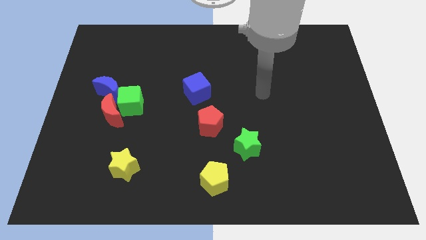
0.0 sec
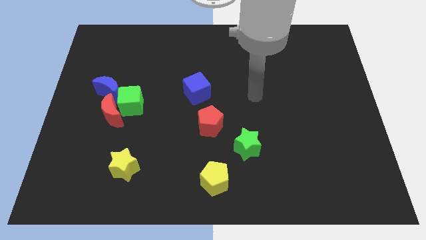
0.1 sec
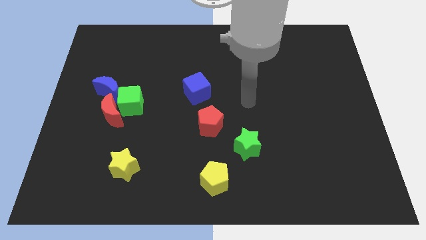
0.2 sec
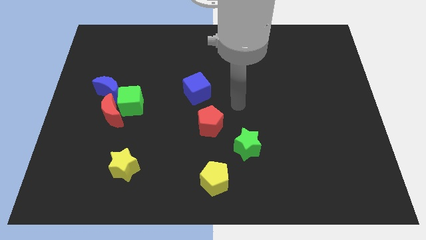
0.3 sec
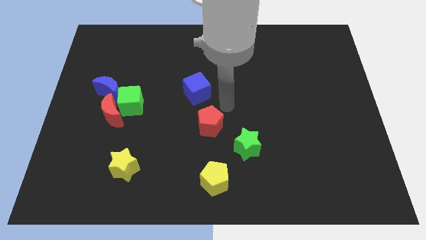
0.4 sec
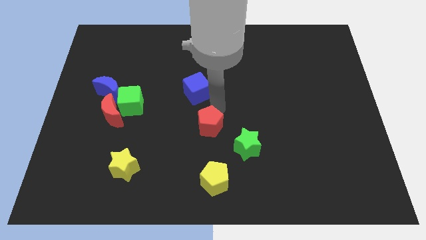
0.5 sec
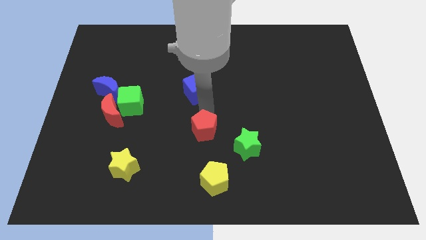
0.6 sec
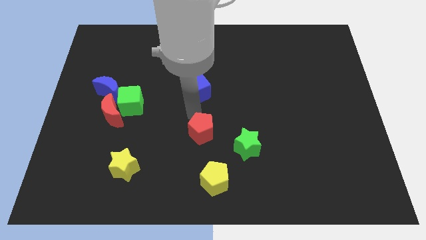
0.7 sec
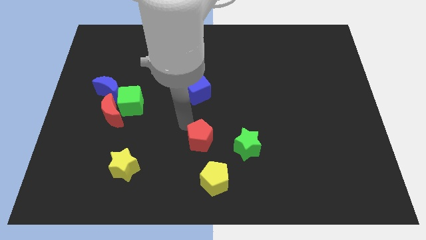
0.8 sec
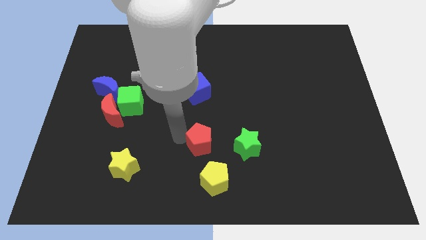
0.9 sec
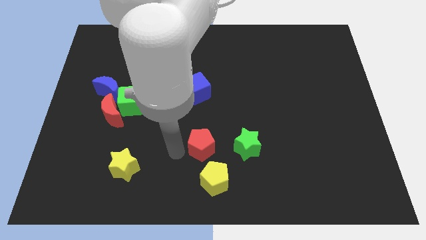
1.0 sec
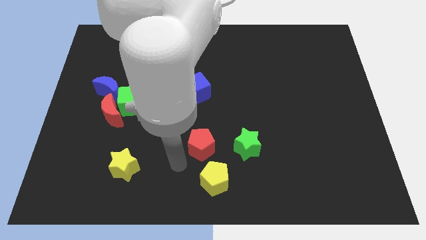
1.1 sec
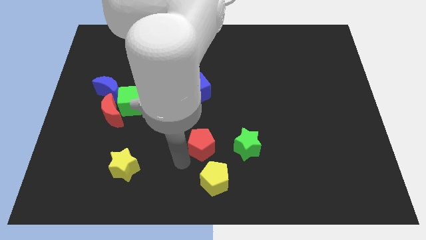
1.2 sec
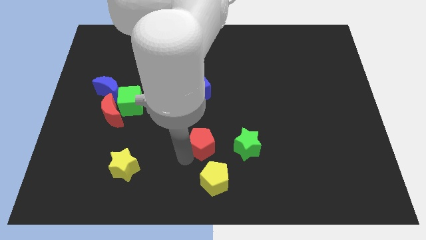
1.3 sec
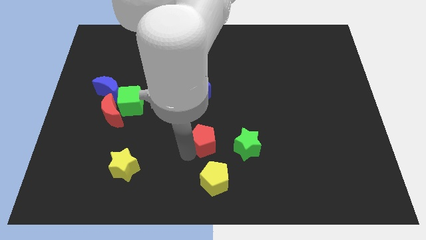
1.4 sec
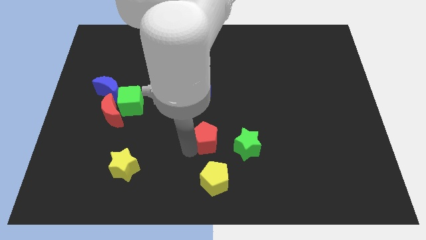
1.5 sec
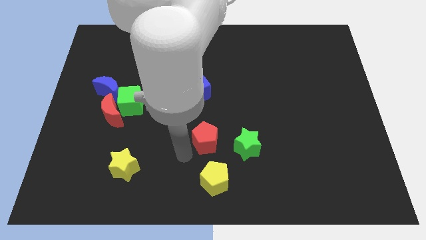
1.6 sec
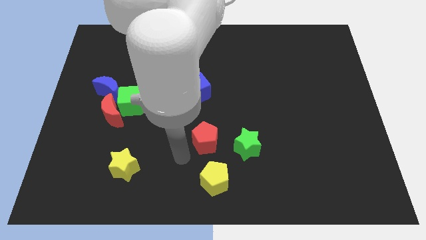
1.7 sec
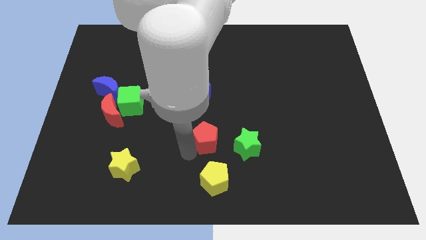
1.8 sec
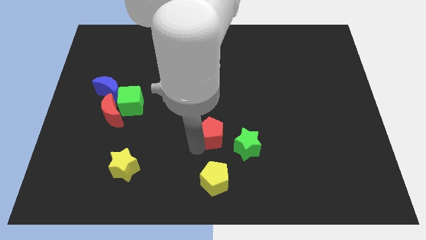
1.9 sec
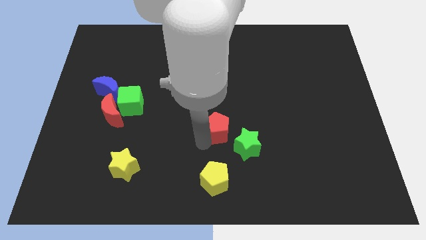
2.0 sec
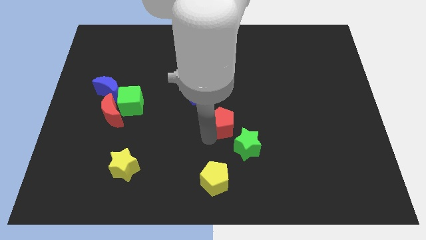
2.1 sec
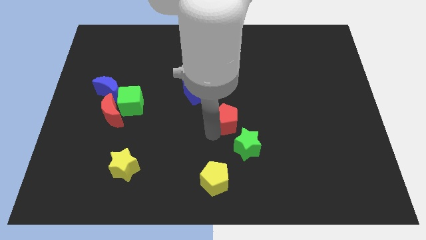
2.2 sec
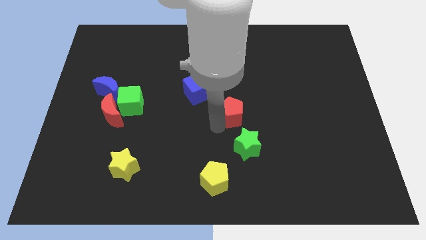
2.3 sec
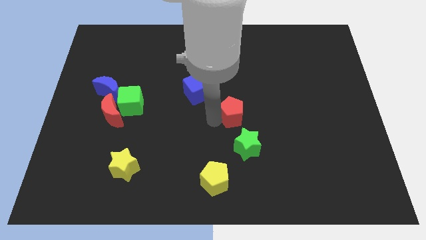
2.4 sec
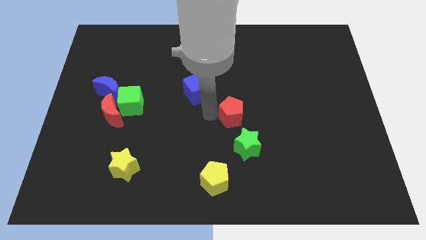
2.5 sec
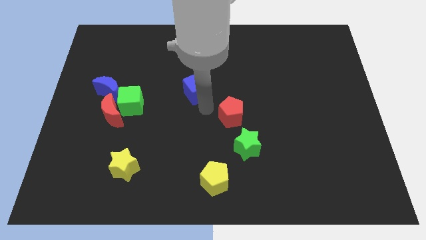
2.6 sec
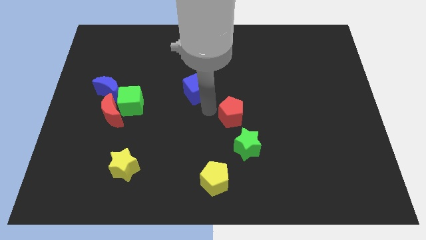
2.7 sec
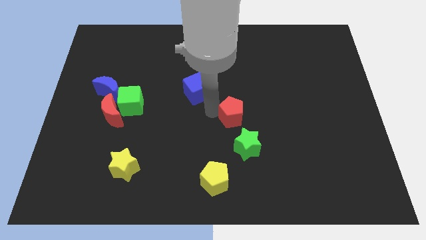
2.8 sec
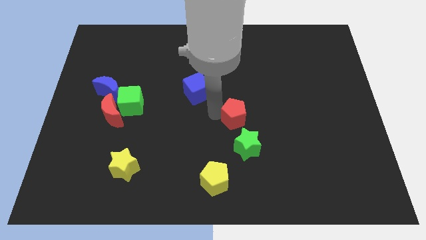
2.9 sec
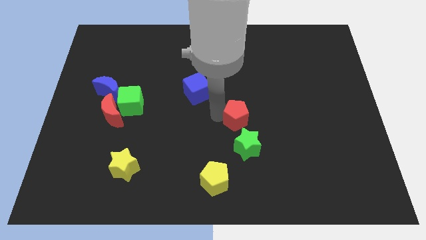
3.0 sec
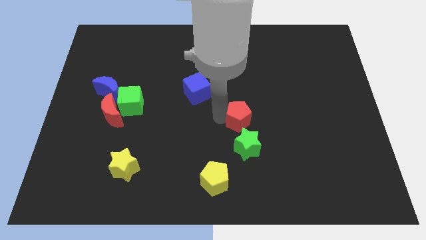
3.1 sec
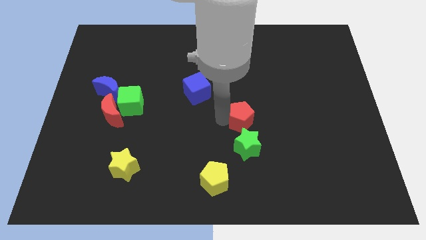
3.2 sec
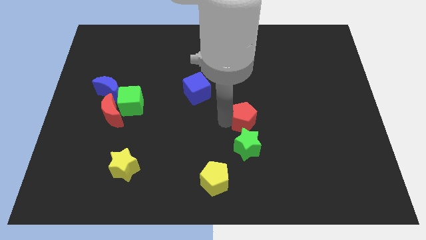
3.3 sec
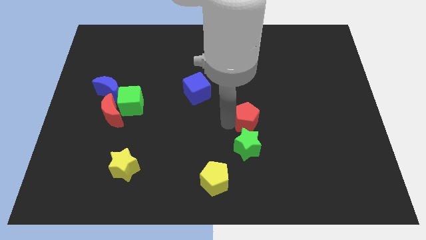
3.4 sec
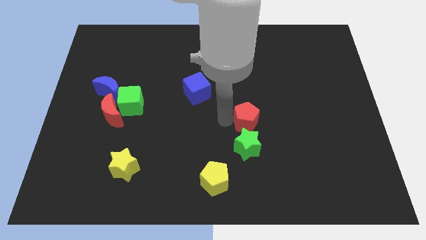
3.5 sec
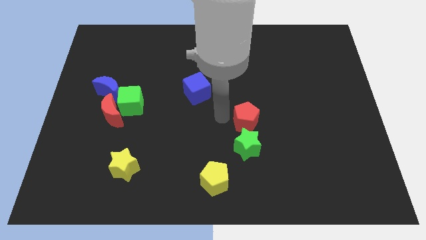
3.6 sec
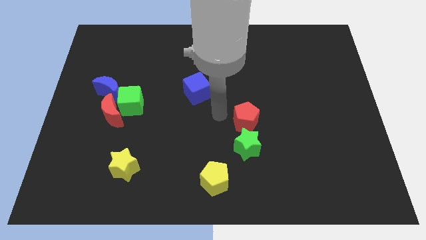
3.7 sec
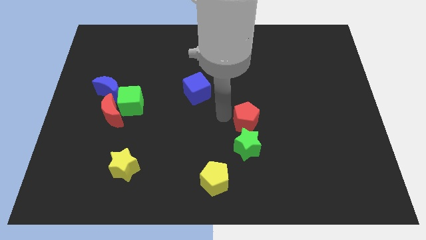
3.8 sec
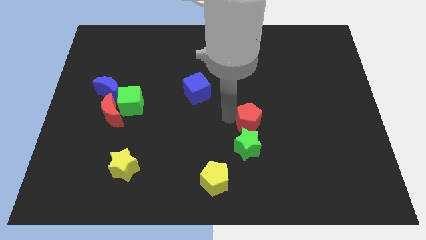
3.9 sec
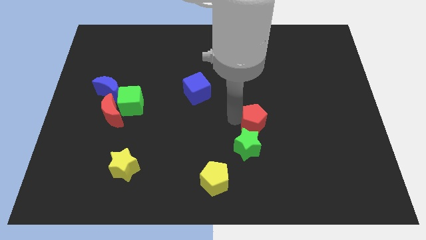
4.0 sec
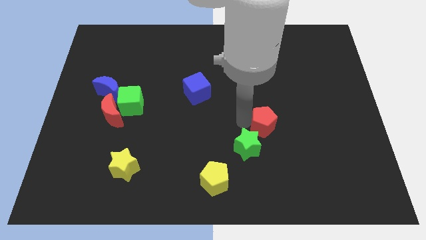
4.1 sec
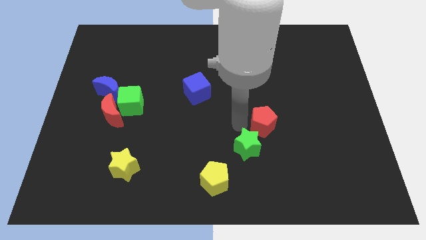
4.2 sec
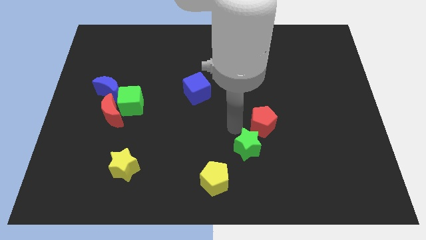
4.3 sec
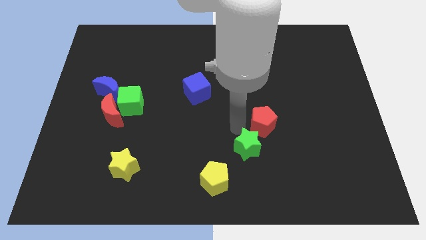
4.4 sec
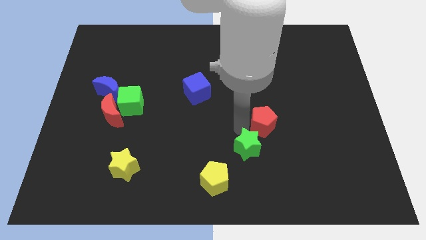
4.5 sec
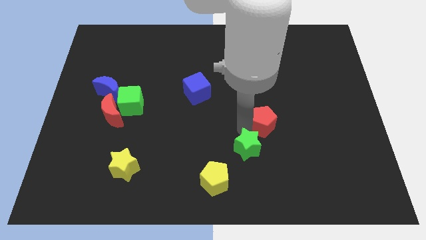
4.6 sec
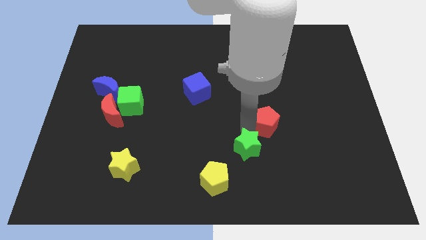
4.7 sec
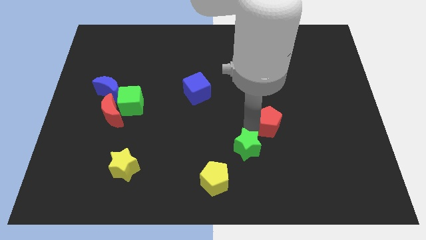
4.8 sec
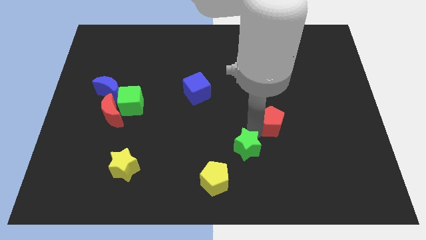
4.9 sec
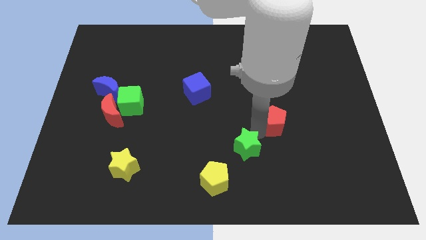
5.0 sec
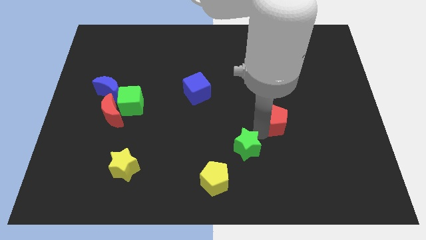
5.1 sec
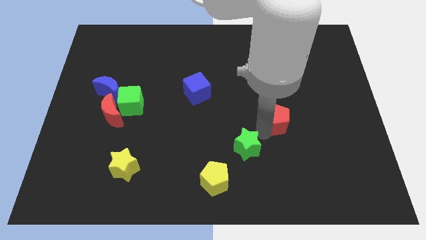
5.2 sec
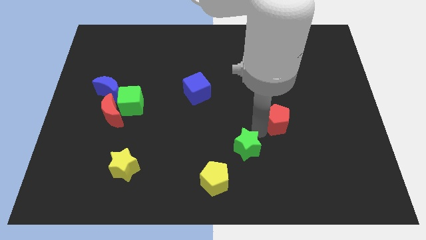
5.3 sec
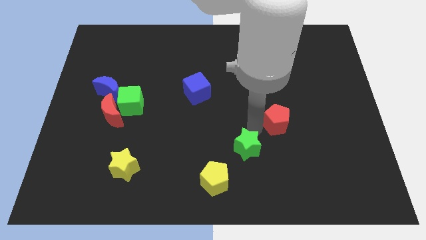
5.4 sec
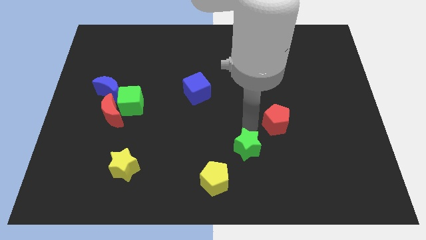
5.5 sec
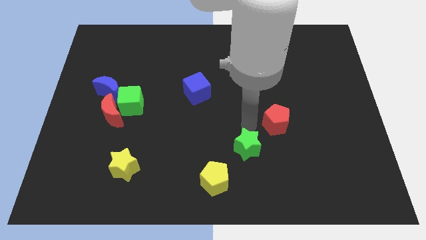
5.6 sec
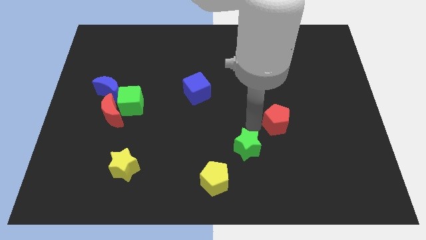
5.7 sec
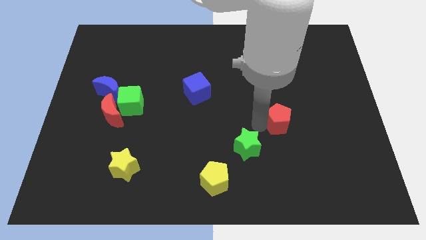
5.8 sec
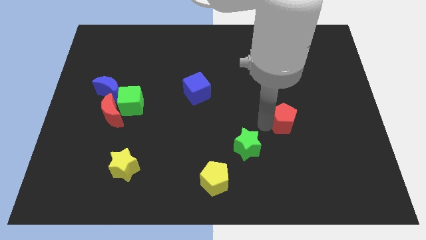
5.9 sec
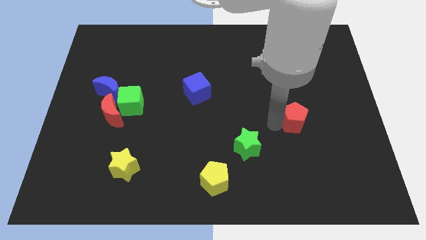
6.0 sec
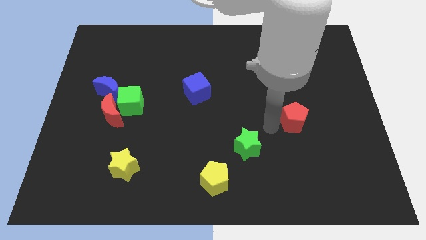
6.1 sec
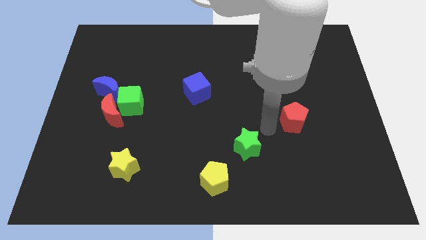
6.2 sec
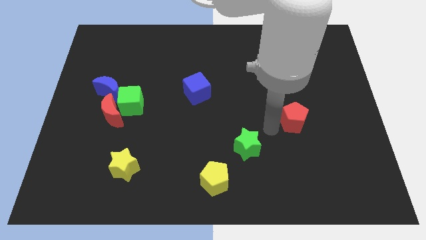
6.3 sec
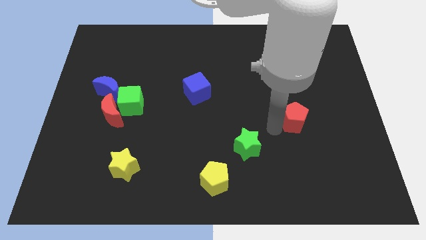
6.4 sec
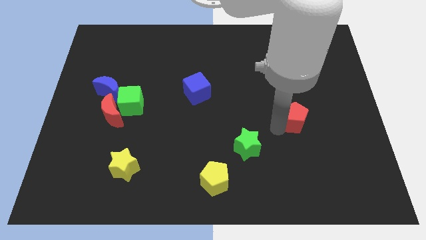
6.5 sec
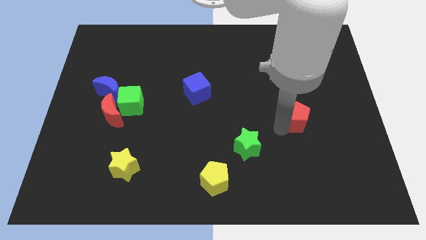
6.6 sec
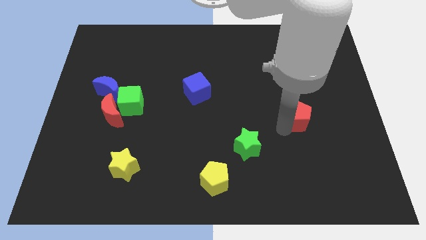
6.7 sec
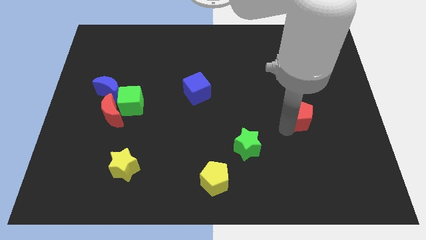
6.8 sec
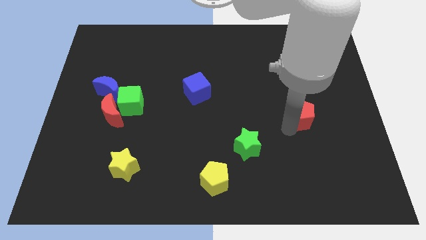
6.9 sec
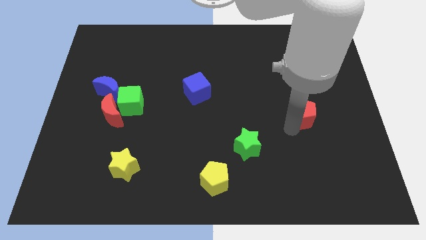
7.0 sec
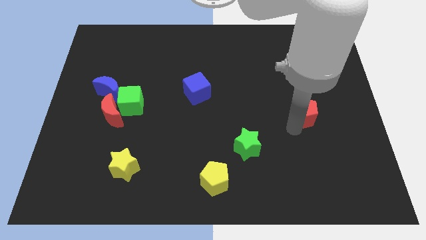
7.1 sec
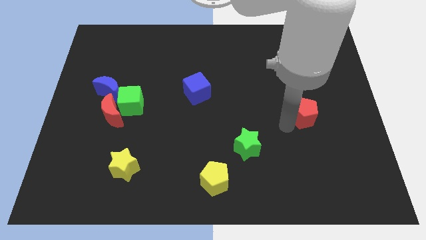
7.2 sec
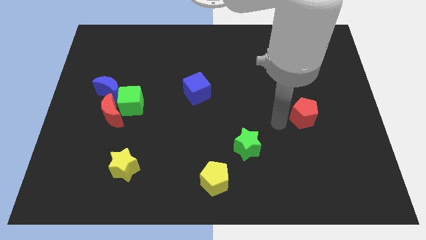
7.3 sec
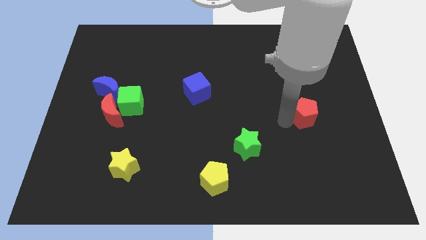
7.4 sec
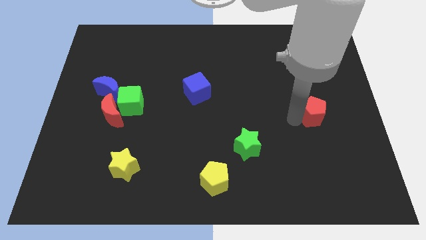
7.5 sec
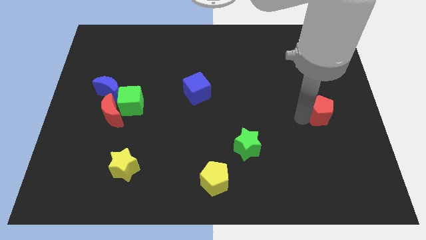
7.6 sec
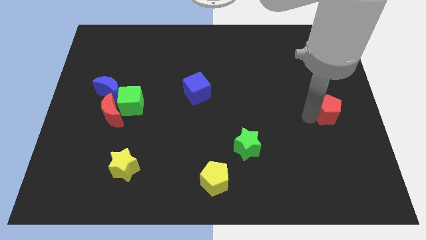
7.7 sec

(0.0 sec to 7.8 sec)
move the red pentagon to the center right
